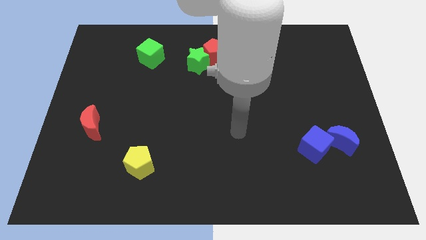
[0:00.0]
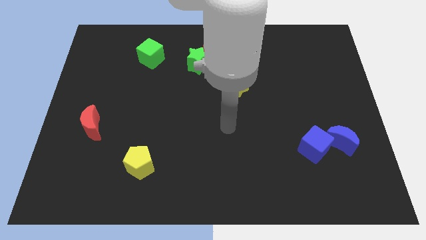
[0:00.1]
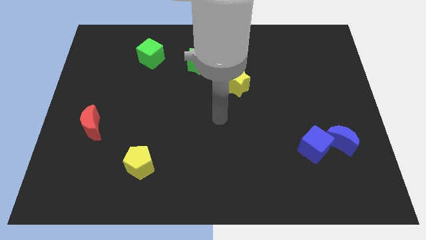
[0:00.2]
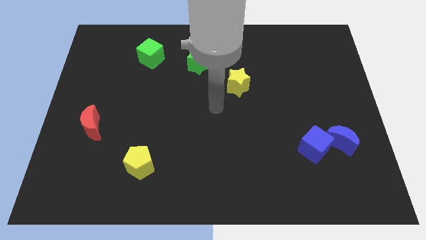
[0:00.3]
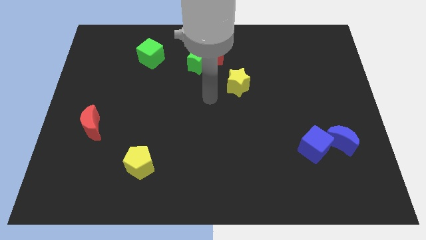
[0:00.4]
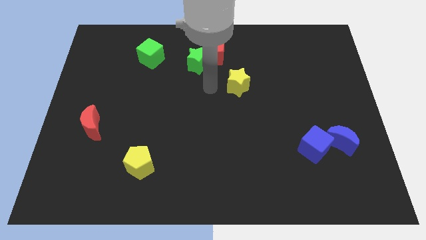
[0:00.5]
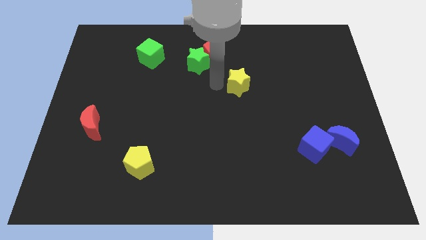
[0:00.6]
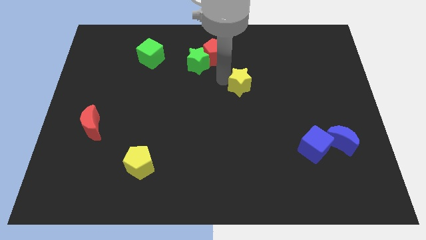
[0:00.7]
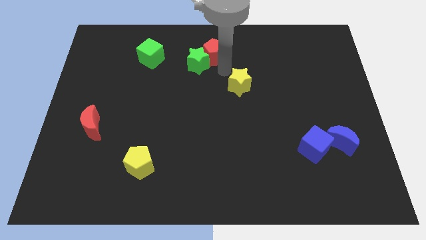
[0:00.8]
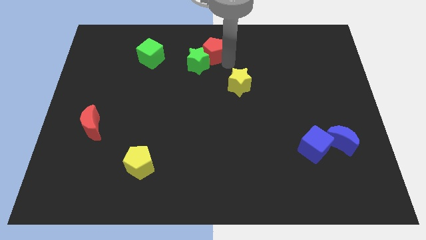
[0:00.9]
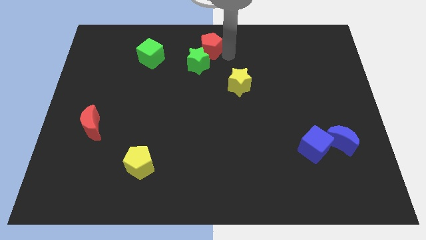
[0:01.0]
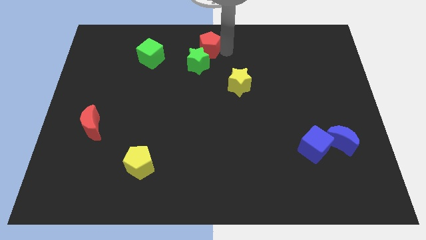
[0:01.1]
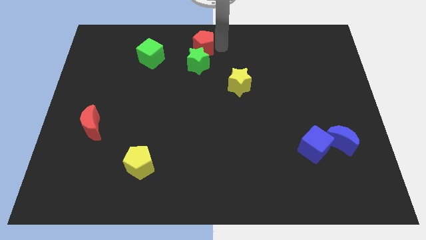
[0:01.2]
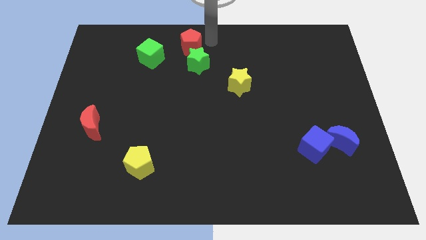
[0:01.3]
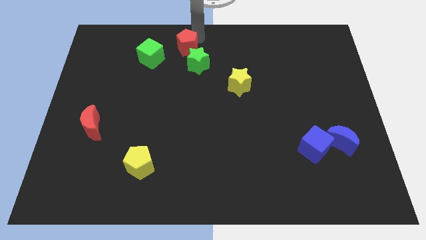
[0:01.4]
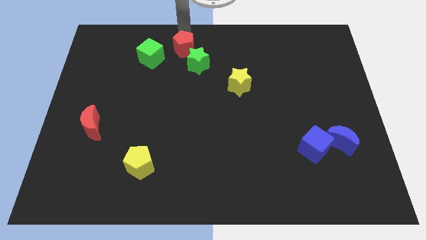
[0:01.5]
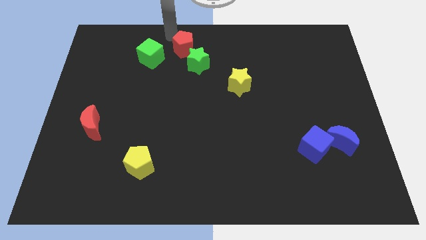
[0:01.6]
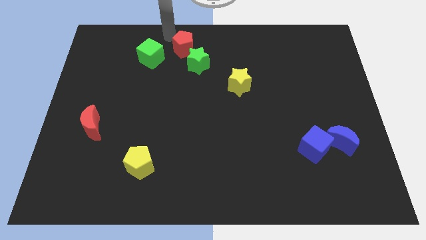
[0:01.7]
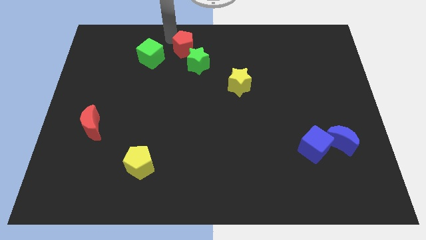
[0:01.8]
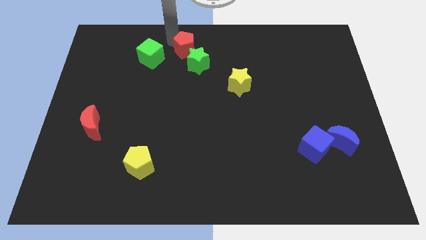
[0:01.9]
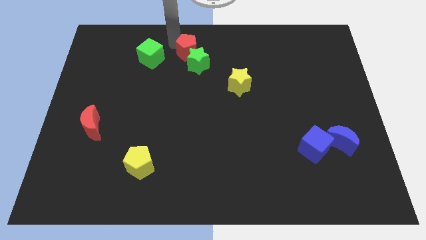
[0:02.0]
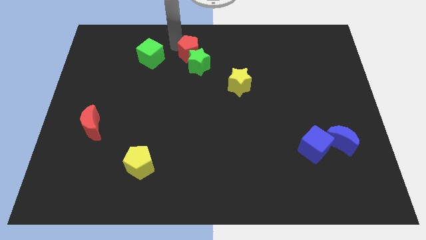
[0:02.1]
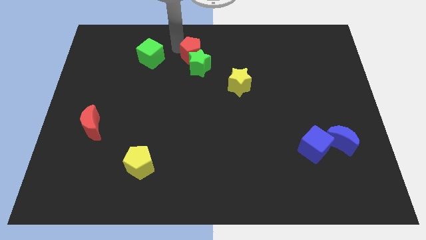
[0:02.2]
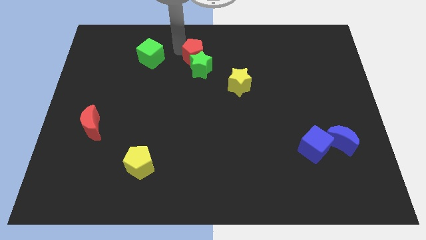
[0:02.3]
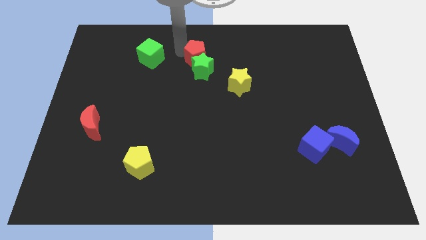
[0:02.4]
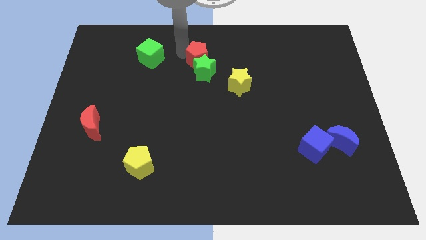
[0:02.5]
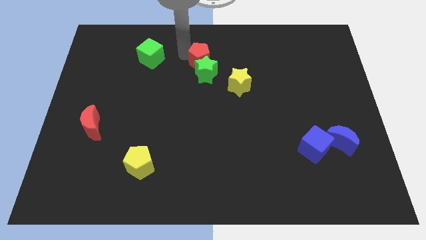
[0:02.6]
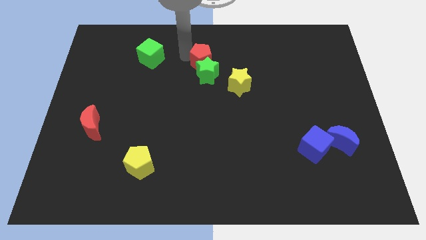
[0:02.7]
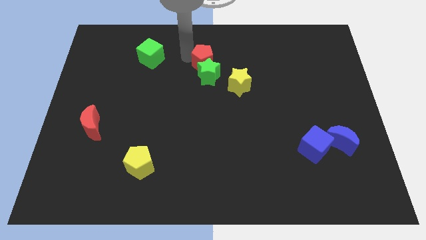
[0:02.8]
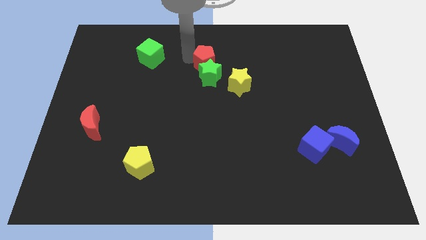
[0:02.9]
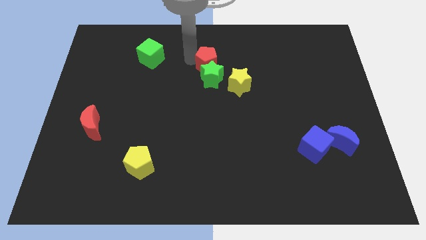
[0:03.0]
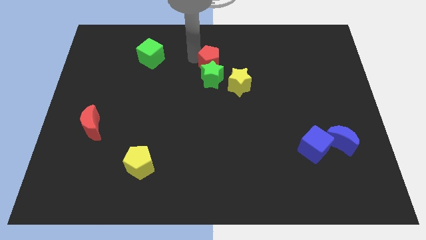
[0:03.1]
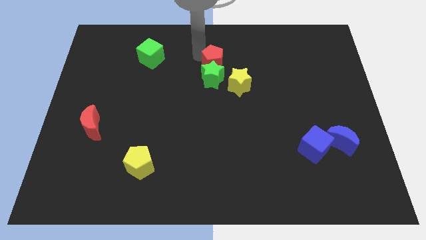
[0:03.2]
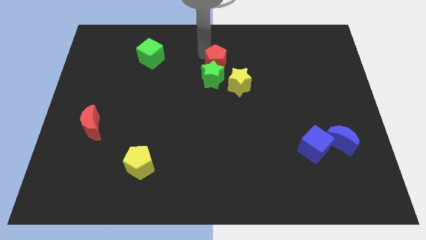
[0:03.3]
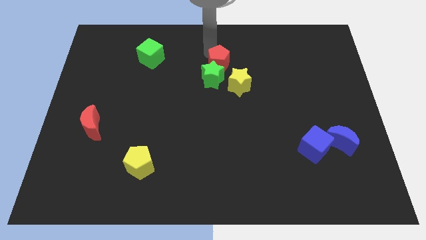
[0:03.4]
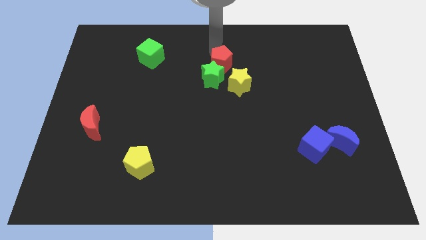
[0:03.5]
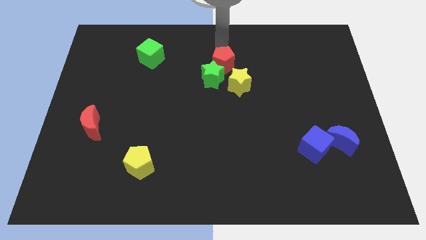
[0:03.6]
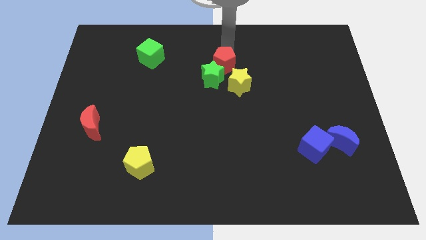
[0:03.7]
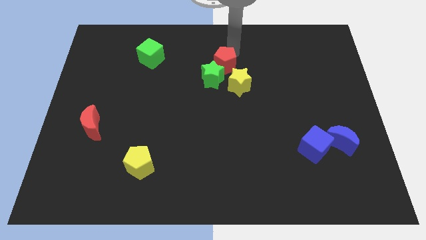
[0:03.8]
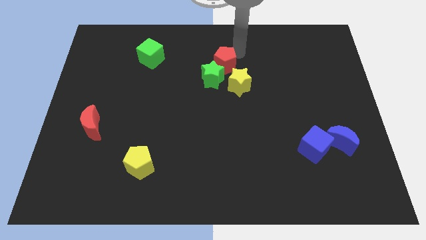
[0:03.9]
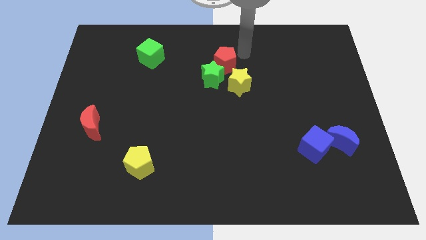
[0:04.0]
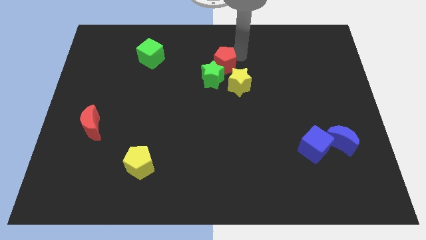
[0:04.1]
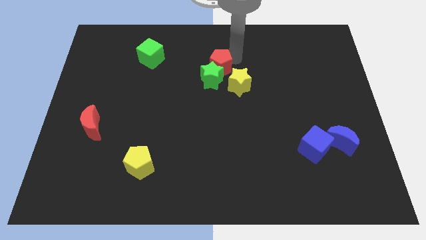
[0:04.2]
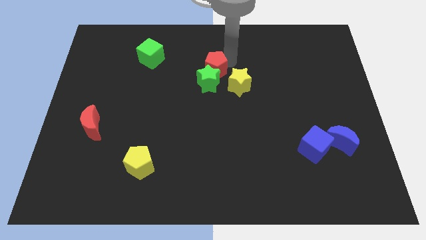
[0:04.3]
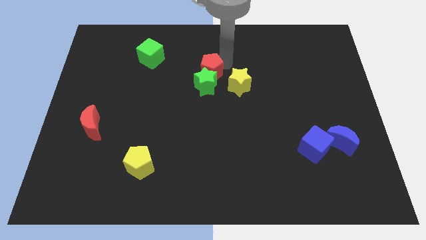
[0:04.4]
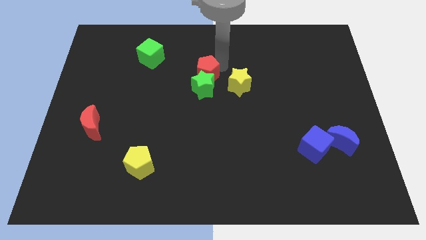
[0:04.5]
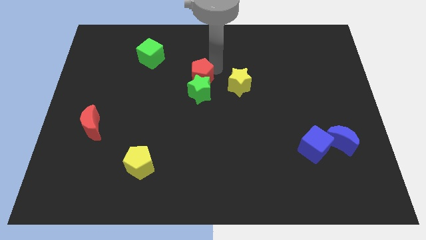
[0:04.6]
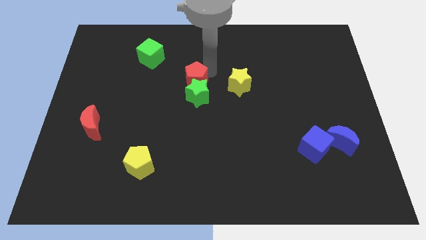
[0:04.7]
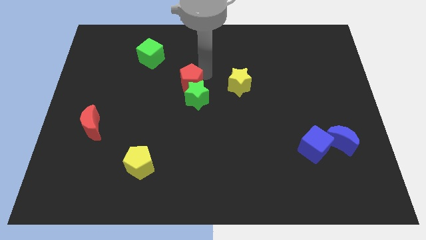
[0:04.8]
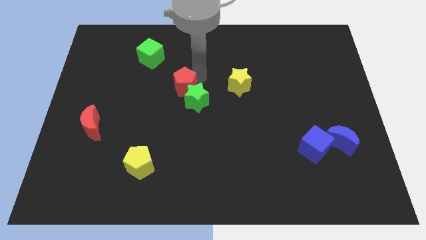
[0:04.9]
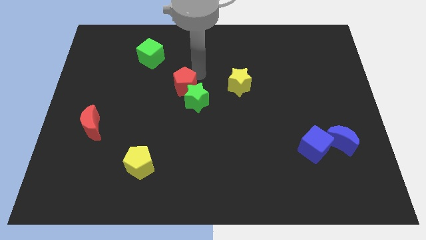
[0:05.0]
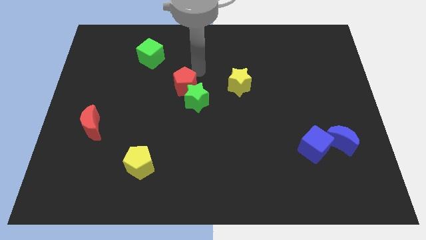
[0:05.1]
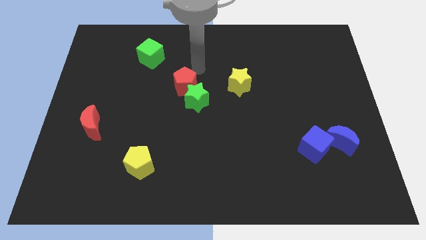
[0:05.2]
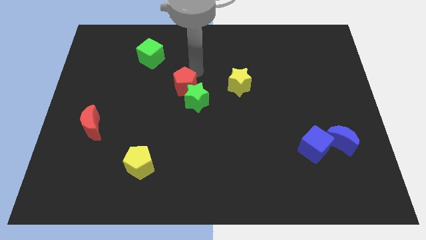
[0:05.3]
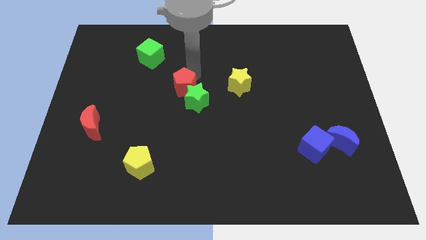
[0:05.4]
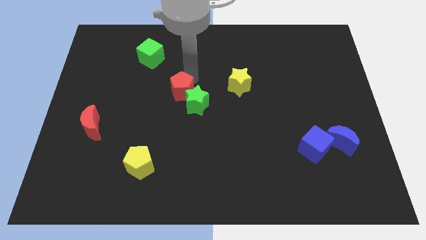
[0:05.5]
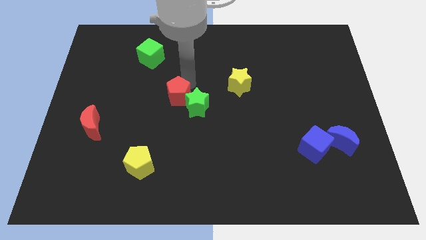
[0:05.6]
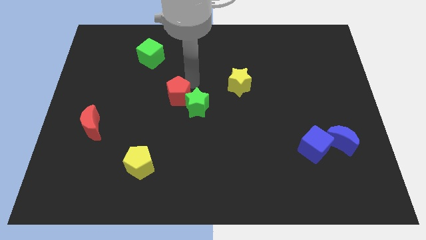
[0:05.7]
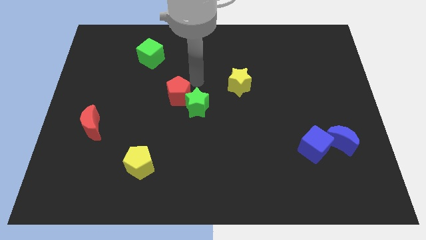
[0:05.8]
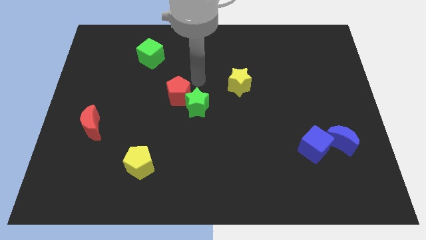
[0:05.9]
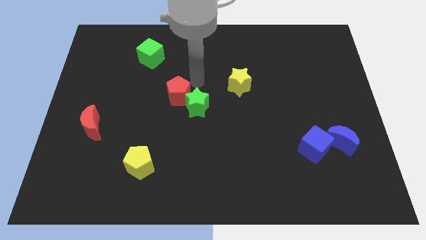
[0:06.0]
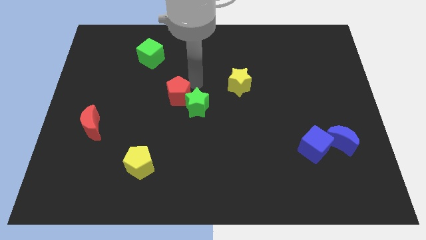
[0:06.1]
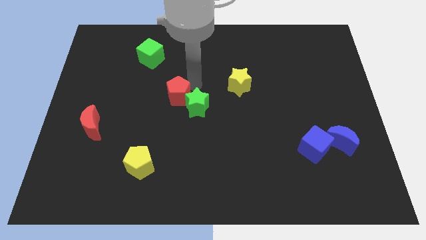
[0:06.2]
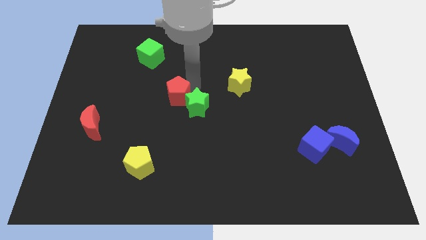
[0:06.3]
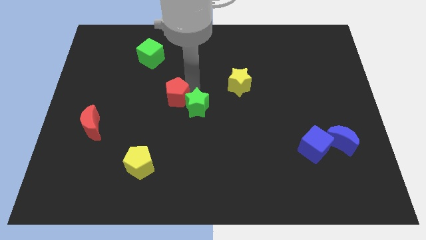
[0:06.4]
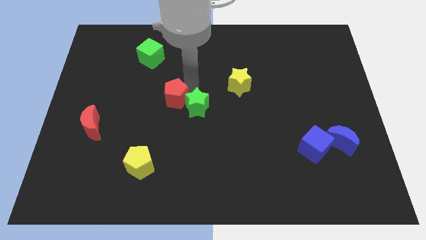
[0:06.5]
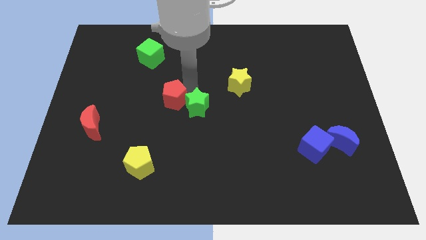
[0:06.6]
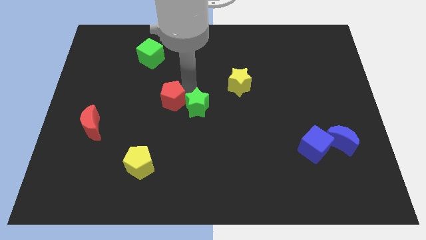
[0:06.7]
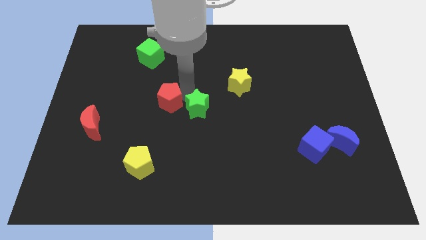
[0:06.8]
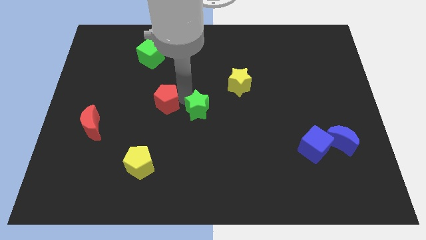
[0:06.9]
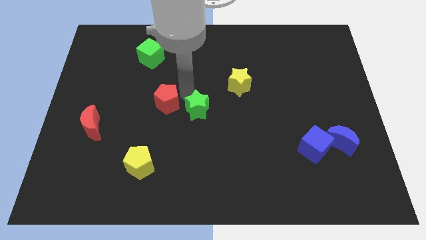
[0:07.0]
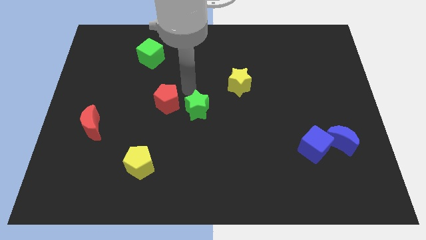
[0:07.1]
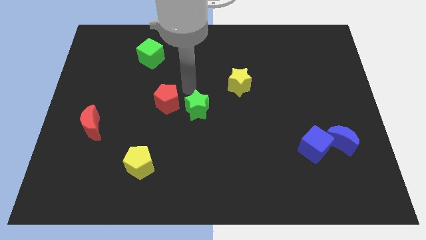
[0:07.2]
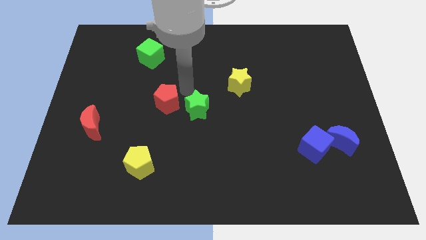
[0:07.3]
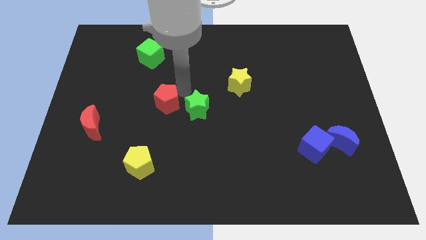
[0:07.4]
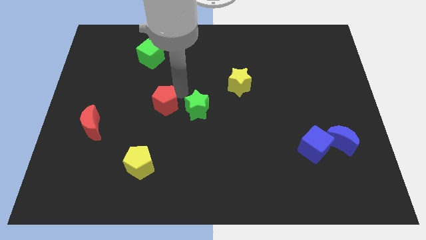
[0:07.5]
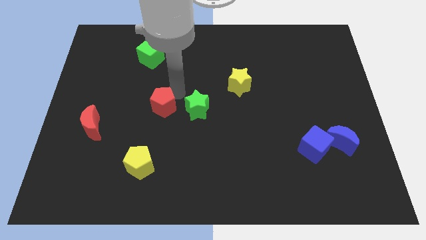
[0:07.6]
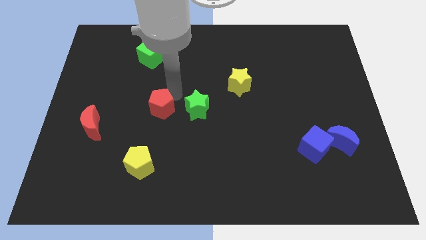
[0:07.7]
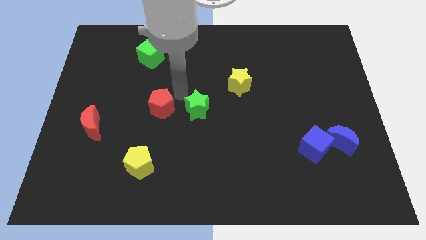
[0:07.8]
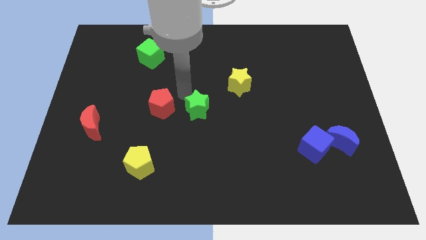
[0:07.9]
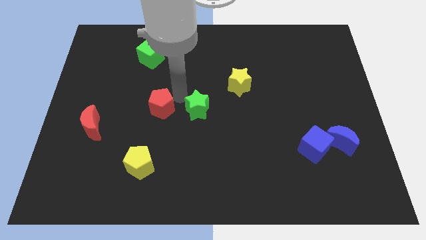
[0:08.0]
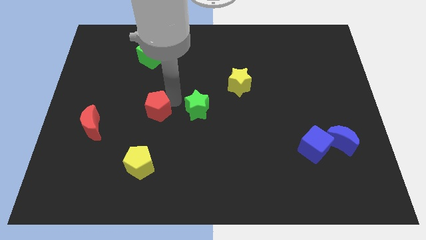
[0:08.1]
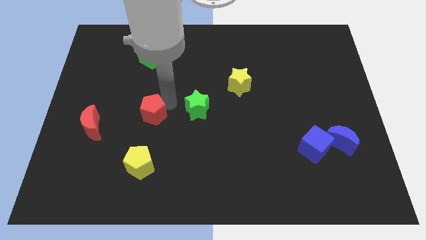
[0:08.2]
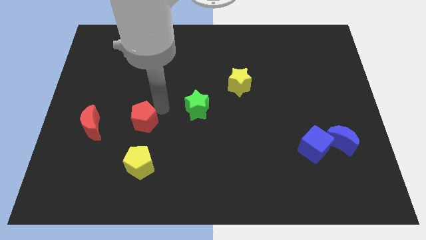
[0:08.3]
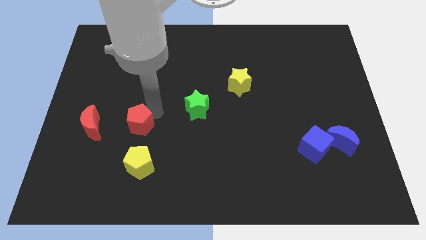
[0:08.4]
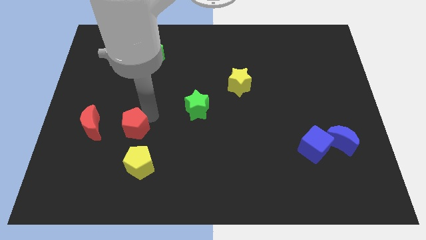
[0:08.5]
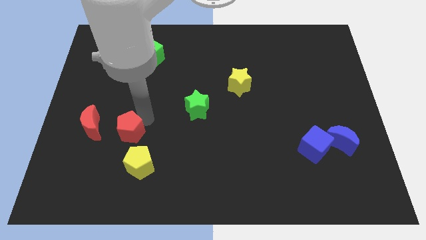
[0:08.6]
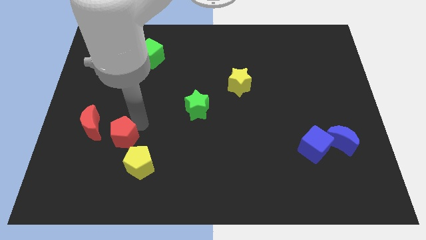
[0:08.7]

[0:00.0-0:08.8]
push the red pentagon to the bottom right of the red moon
